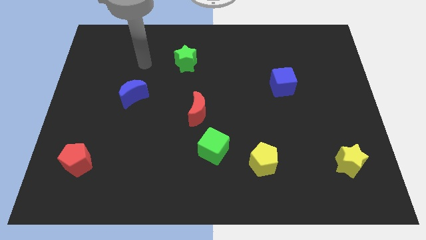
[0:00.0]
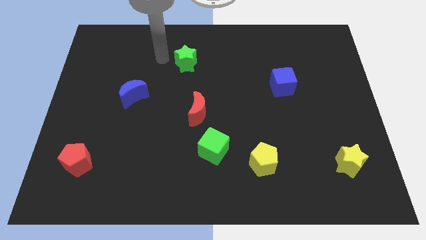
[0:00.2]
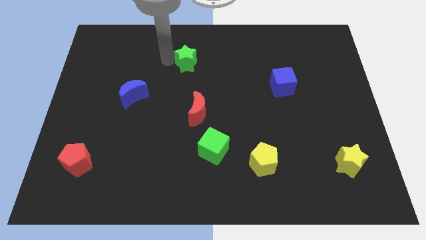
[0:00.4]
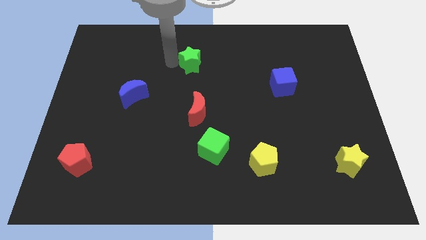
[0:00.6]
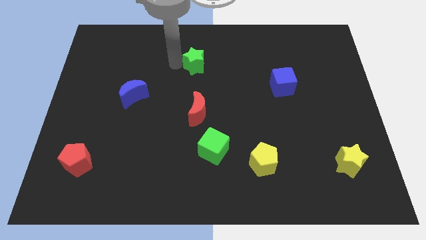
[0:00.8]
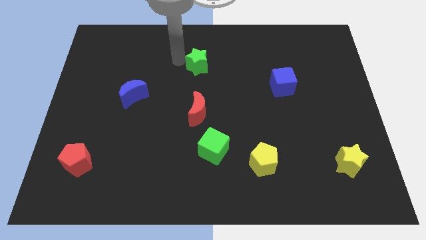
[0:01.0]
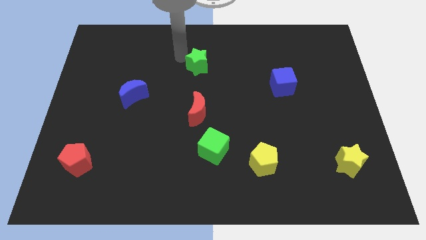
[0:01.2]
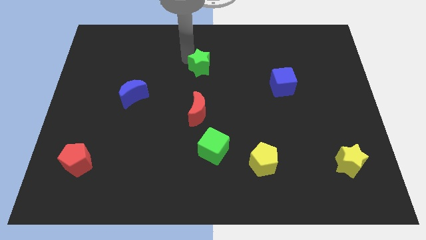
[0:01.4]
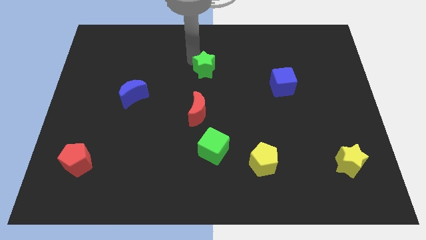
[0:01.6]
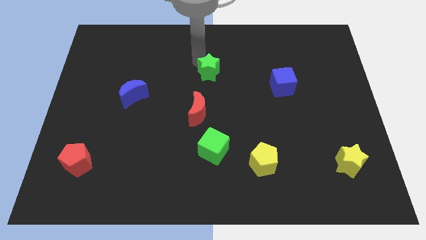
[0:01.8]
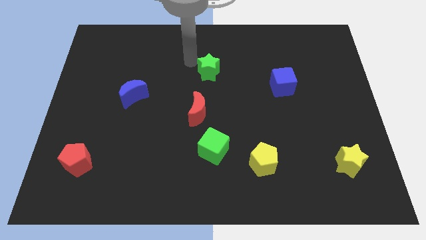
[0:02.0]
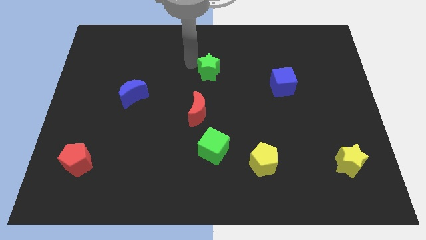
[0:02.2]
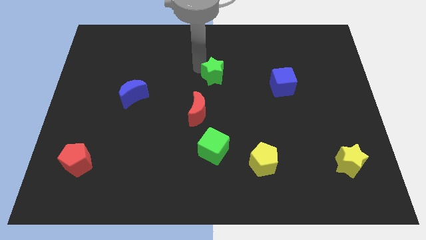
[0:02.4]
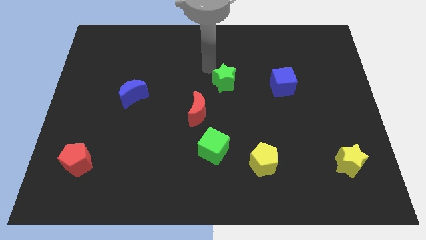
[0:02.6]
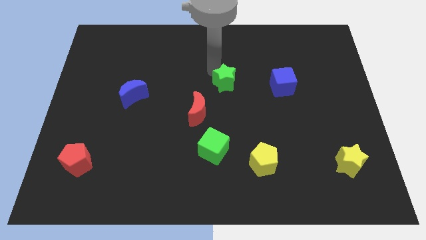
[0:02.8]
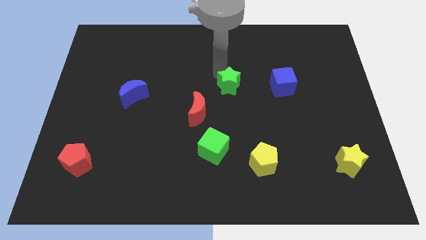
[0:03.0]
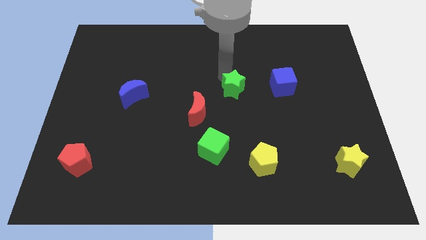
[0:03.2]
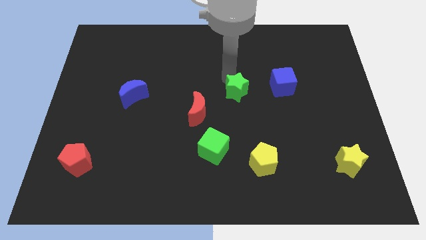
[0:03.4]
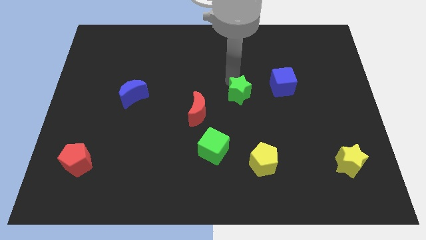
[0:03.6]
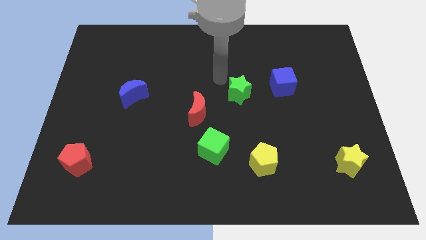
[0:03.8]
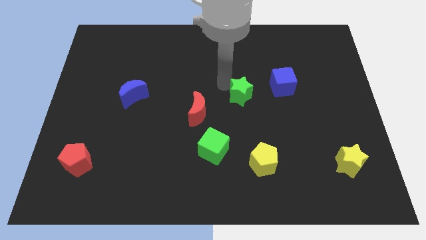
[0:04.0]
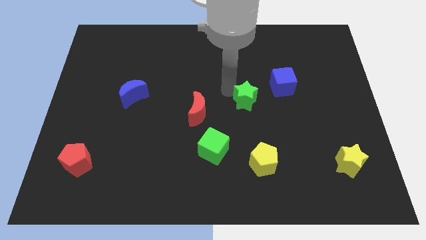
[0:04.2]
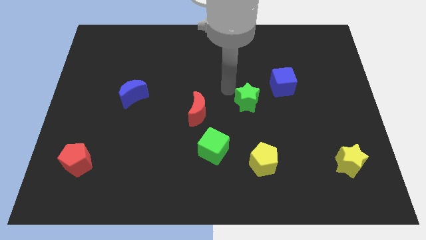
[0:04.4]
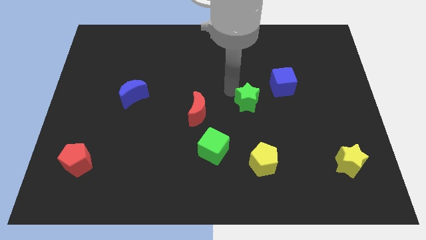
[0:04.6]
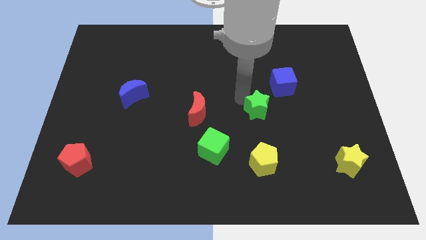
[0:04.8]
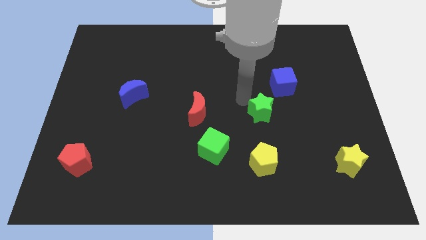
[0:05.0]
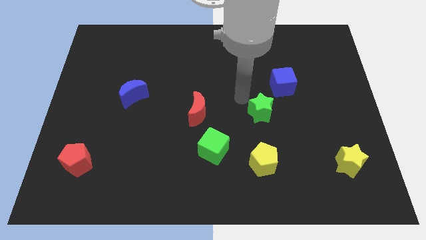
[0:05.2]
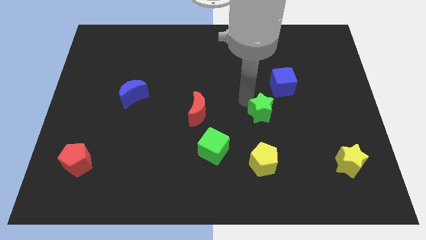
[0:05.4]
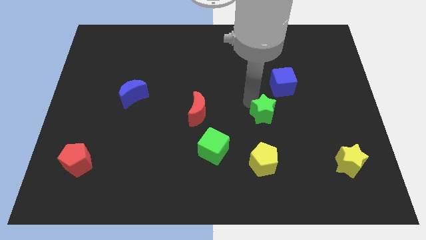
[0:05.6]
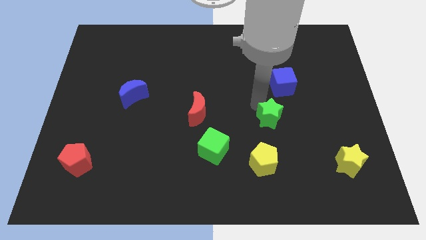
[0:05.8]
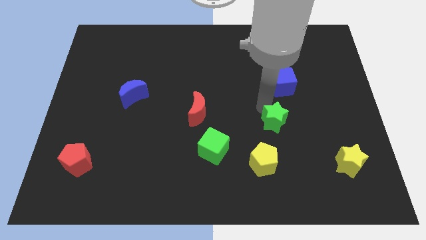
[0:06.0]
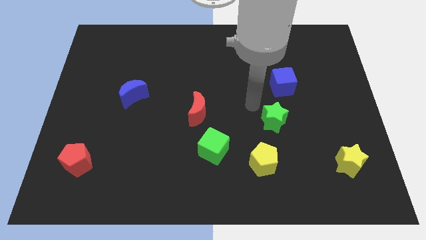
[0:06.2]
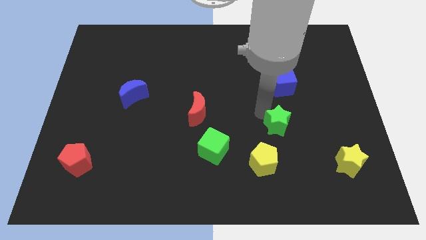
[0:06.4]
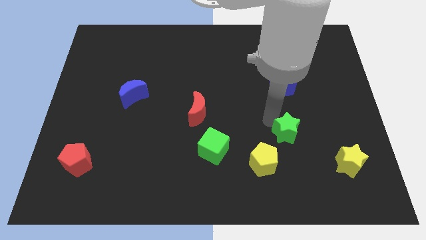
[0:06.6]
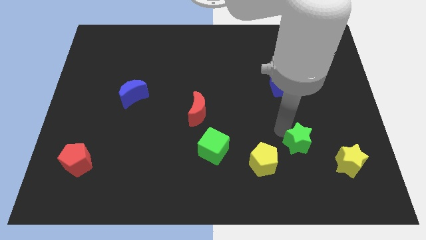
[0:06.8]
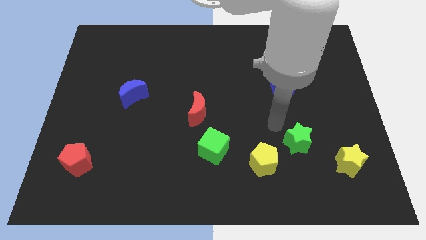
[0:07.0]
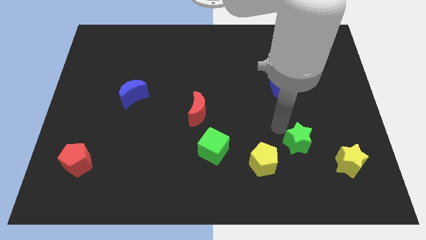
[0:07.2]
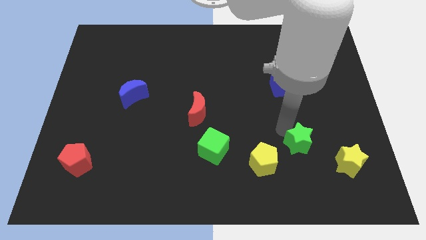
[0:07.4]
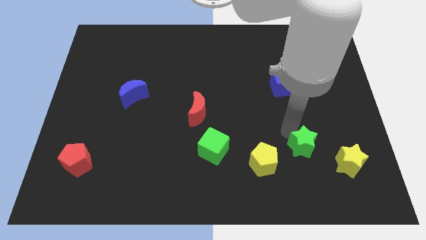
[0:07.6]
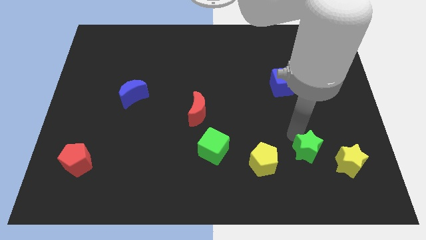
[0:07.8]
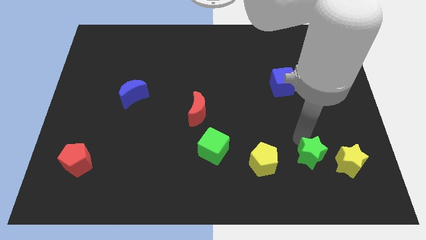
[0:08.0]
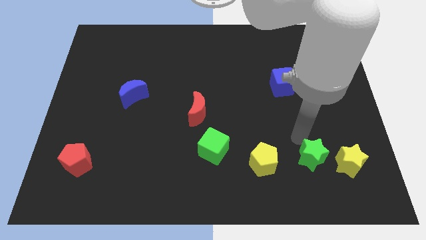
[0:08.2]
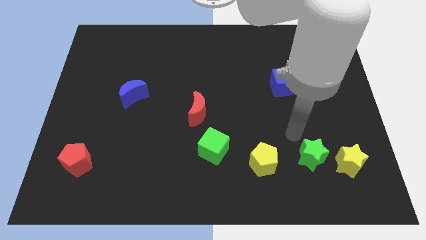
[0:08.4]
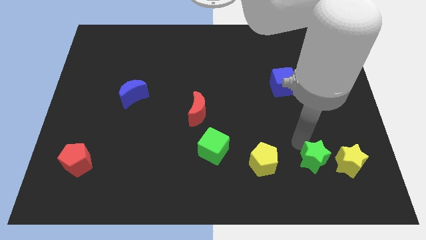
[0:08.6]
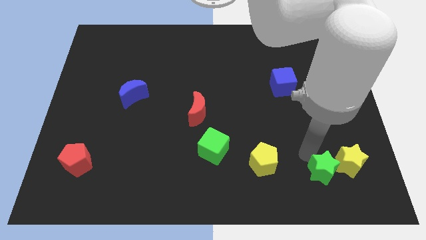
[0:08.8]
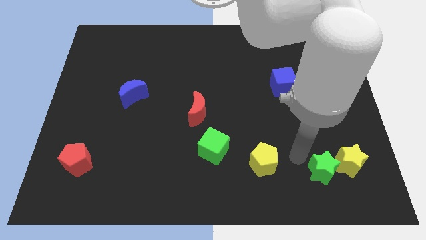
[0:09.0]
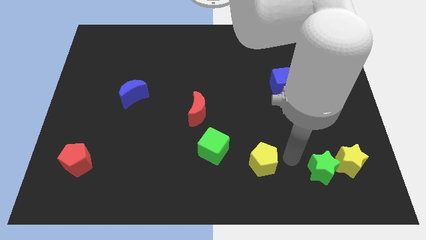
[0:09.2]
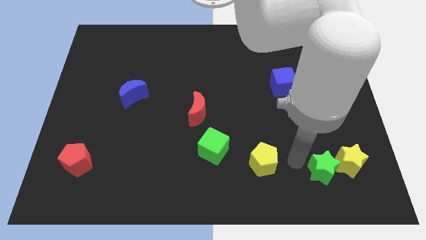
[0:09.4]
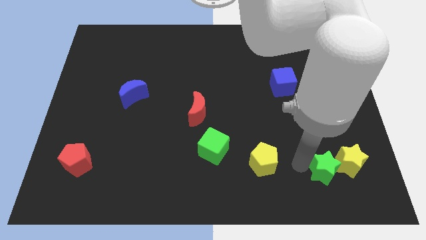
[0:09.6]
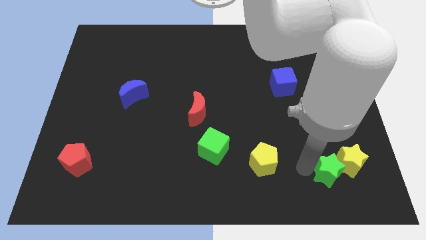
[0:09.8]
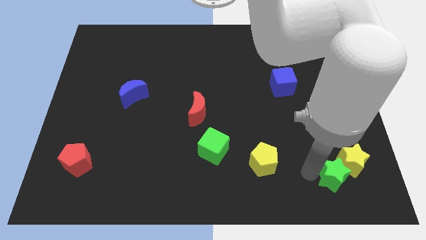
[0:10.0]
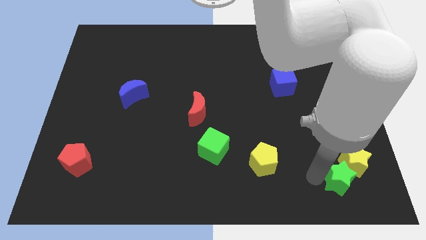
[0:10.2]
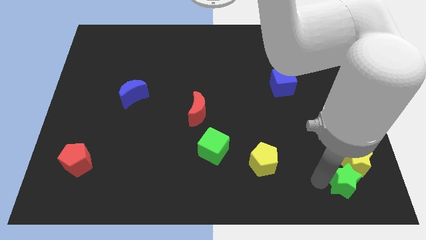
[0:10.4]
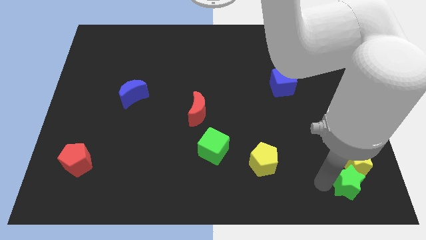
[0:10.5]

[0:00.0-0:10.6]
slide the green star to the bottom right of the board

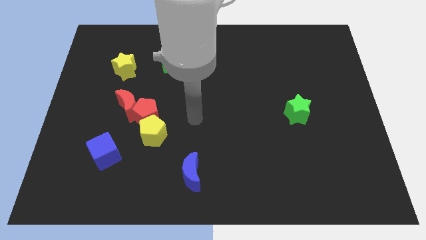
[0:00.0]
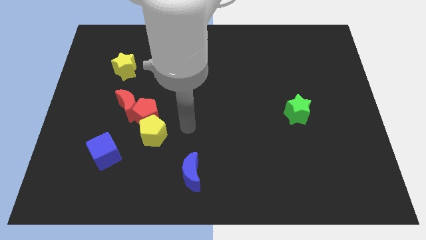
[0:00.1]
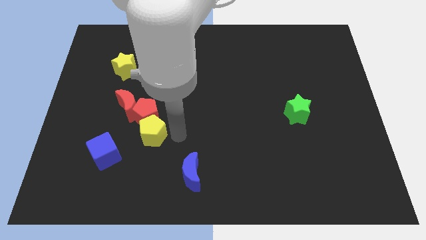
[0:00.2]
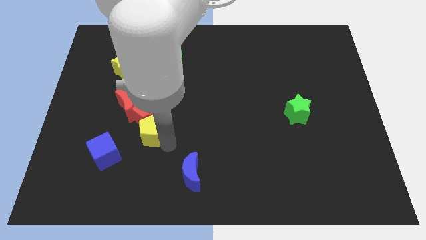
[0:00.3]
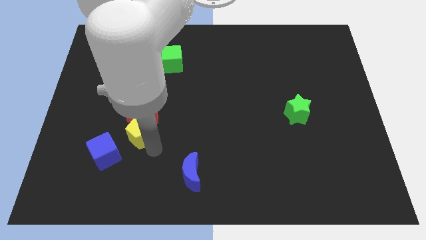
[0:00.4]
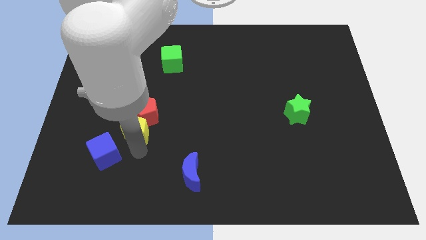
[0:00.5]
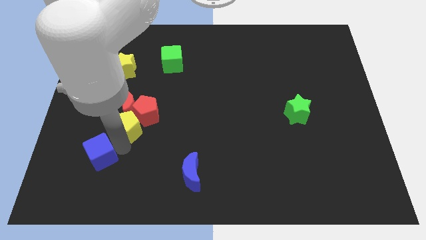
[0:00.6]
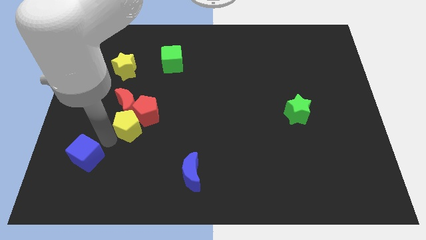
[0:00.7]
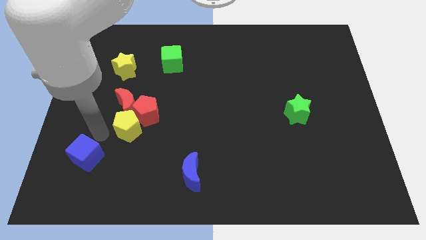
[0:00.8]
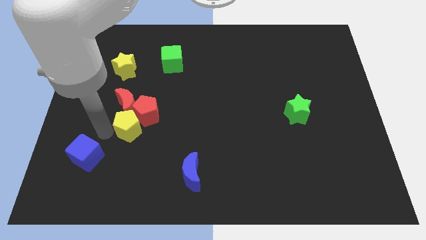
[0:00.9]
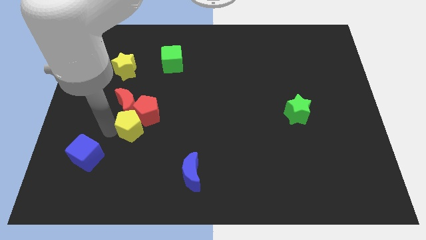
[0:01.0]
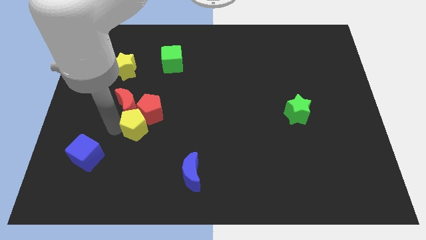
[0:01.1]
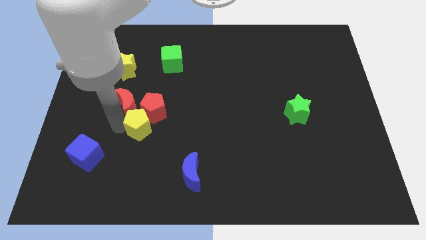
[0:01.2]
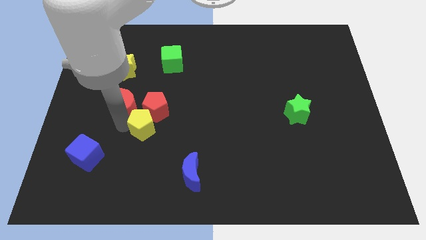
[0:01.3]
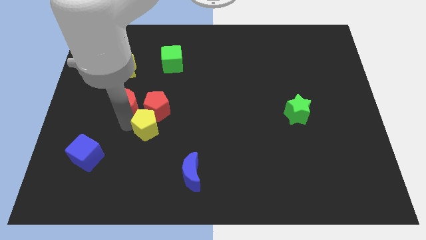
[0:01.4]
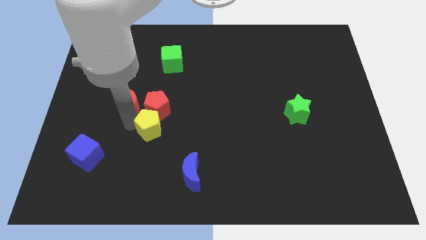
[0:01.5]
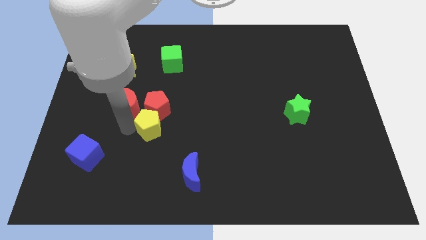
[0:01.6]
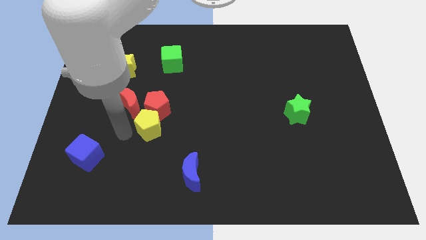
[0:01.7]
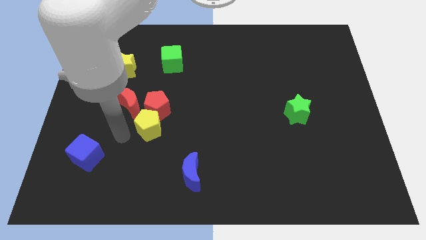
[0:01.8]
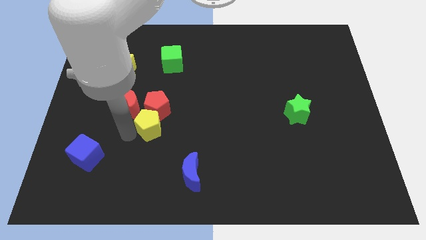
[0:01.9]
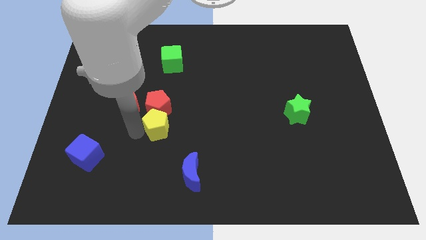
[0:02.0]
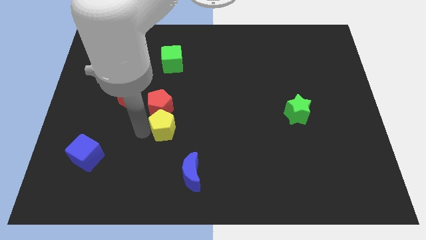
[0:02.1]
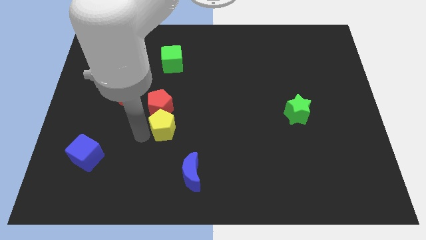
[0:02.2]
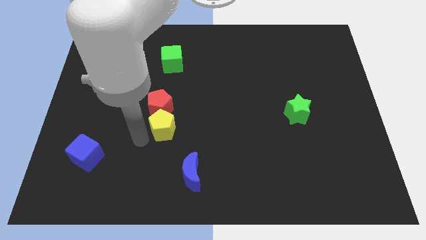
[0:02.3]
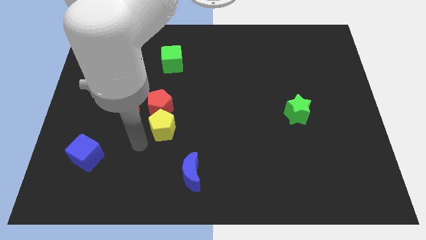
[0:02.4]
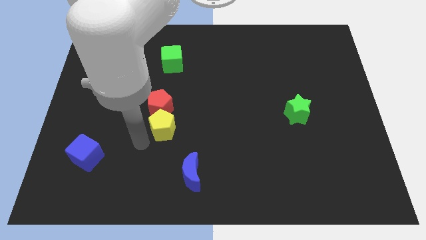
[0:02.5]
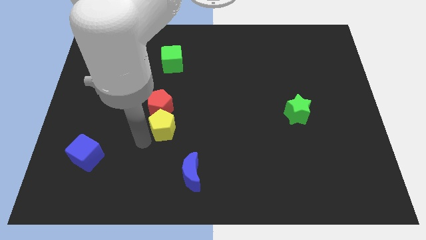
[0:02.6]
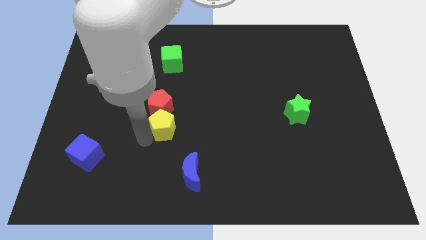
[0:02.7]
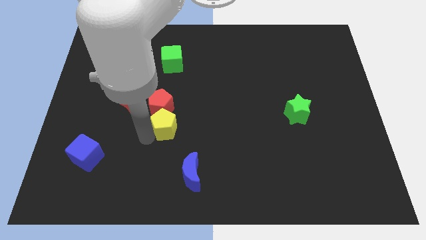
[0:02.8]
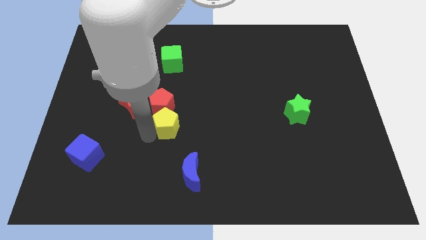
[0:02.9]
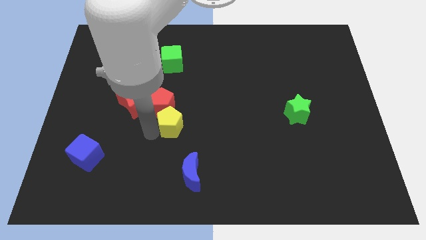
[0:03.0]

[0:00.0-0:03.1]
move the yellow pentagon to the center
